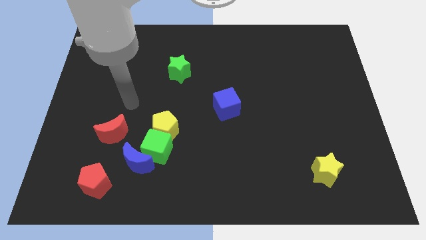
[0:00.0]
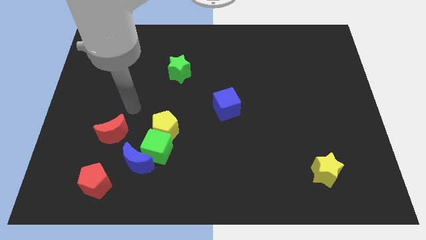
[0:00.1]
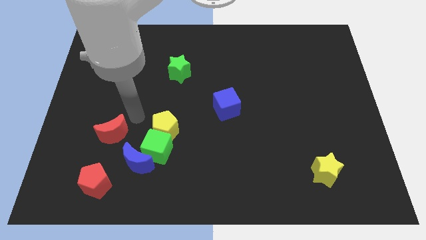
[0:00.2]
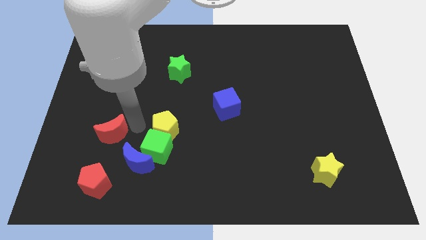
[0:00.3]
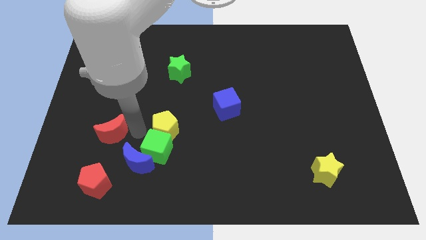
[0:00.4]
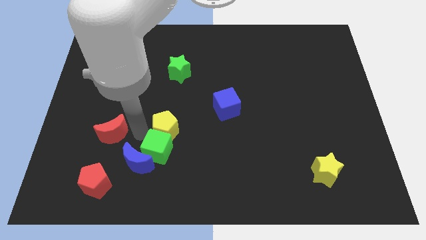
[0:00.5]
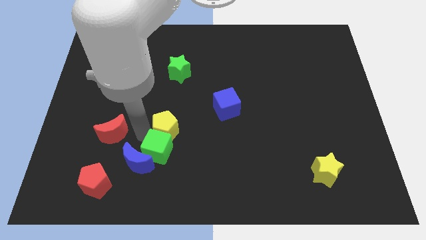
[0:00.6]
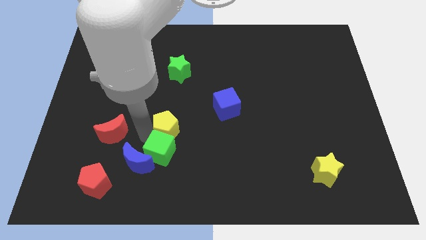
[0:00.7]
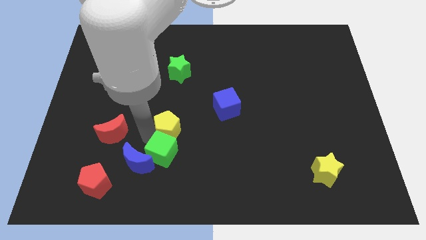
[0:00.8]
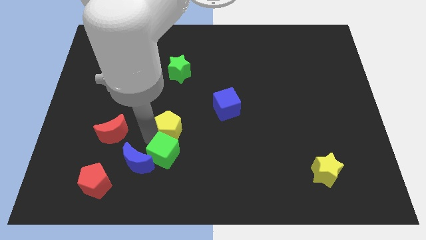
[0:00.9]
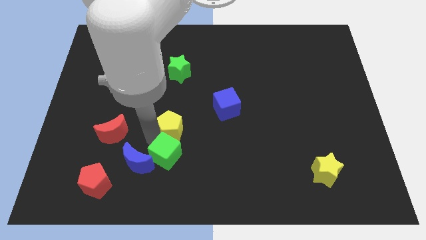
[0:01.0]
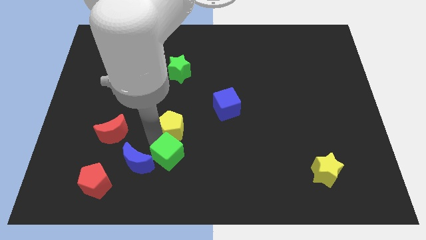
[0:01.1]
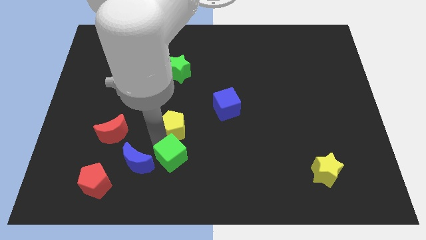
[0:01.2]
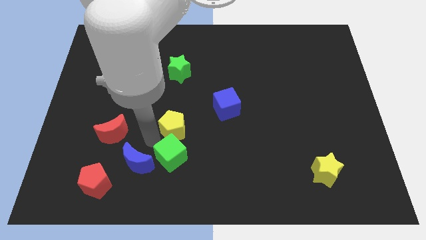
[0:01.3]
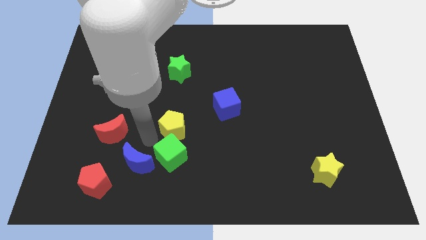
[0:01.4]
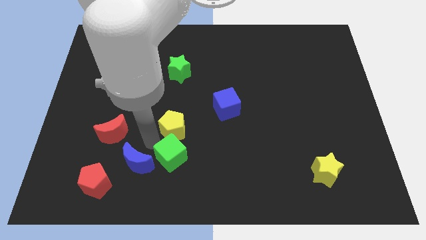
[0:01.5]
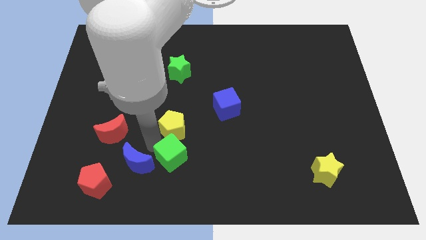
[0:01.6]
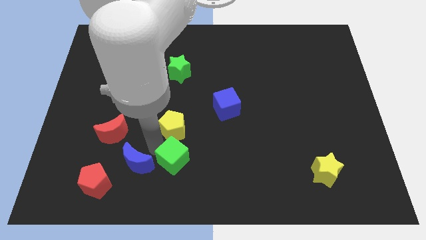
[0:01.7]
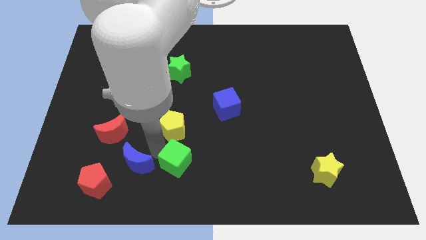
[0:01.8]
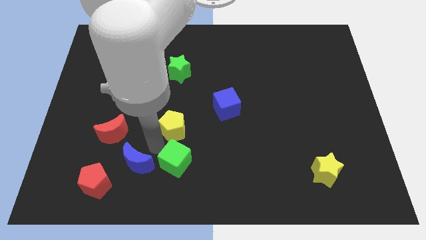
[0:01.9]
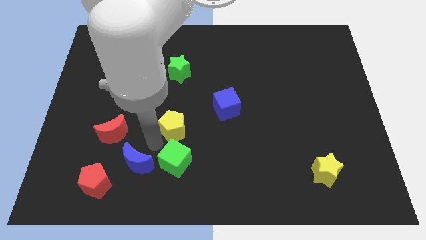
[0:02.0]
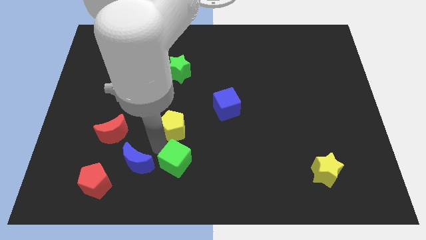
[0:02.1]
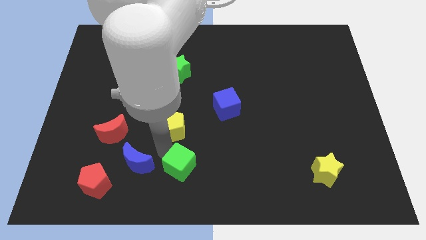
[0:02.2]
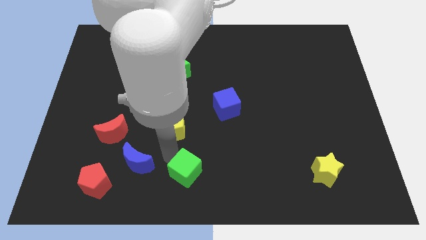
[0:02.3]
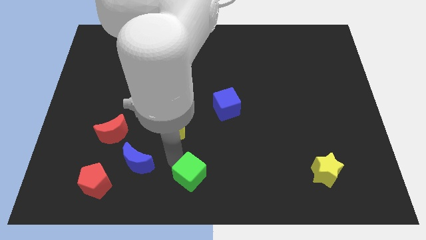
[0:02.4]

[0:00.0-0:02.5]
separate the green cube from the blue moon and yellow pentagon

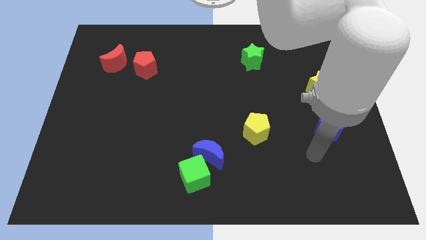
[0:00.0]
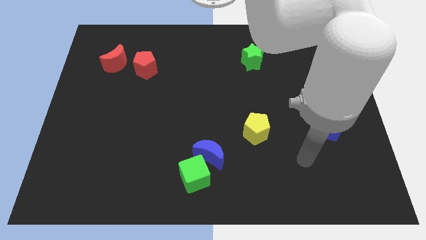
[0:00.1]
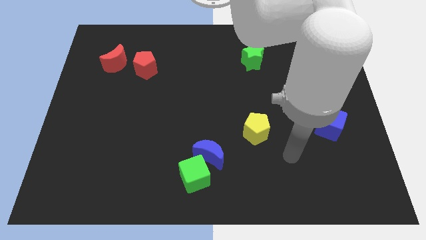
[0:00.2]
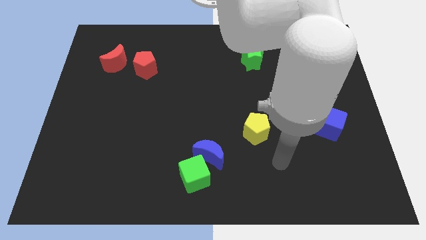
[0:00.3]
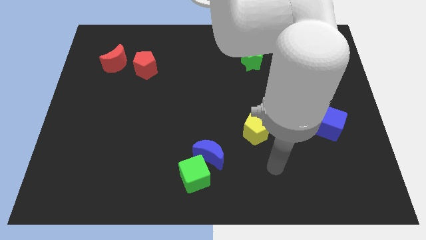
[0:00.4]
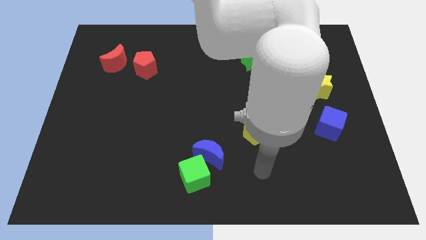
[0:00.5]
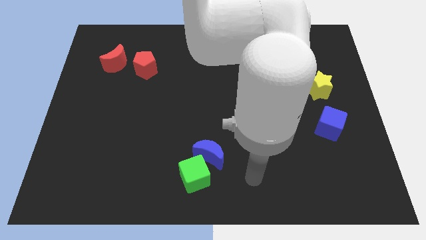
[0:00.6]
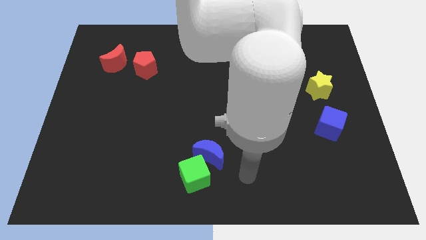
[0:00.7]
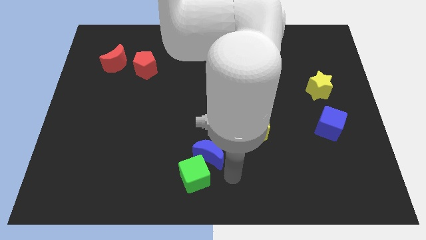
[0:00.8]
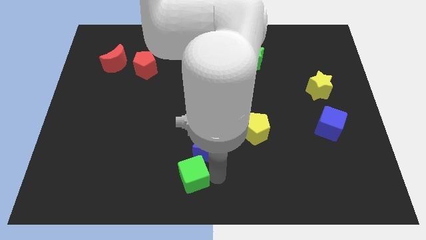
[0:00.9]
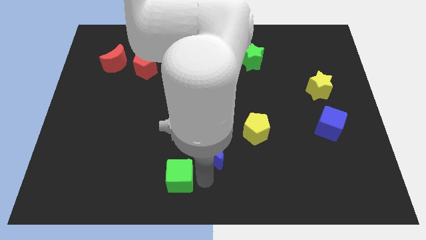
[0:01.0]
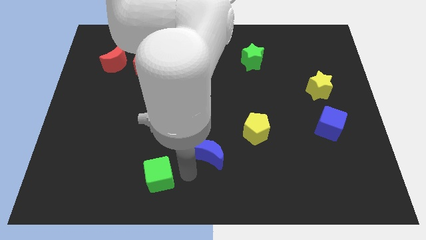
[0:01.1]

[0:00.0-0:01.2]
pull the blue moon apart from the green cube

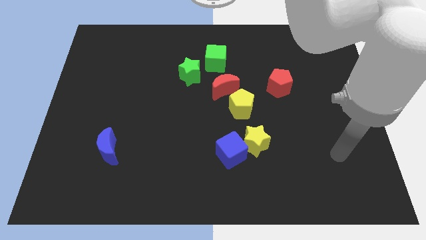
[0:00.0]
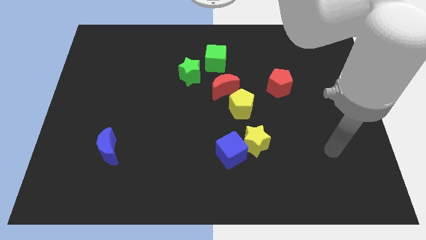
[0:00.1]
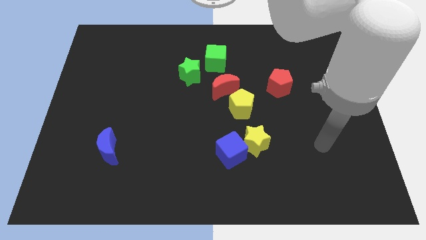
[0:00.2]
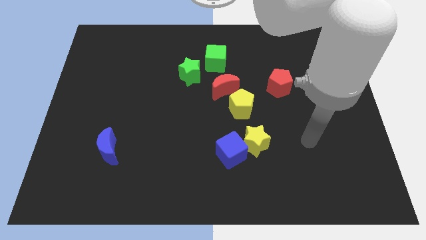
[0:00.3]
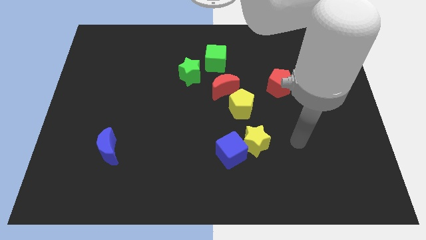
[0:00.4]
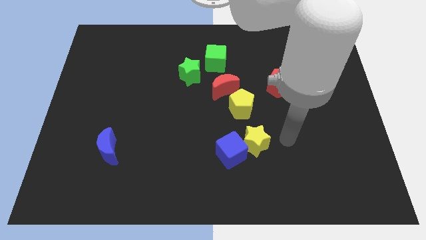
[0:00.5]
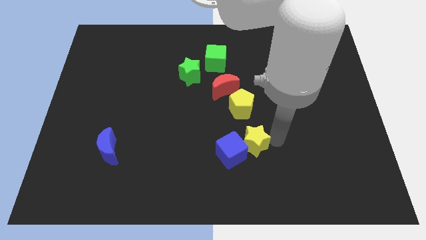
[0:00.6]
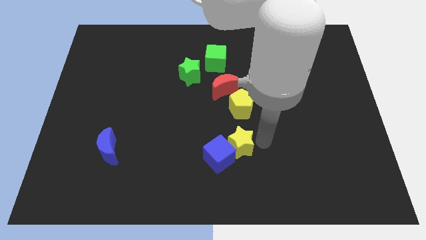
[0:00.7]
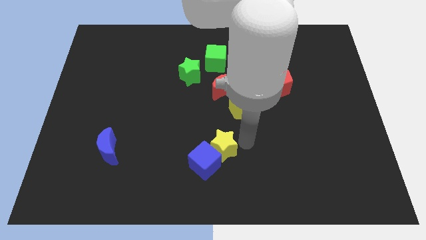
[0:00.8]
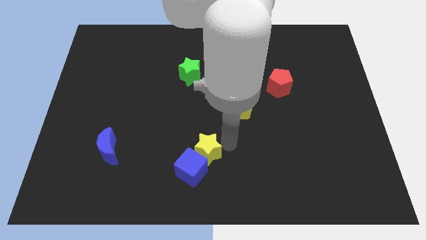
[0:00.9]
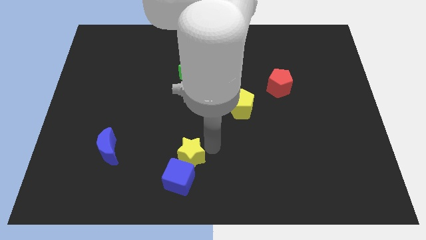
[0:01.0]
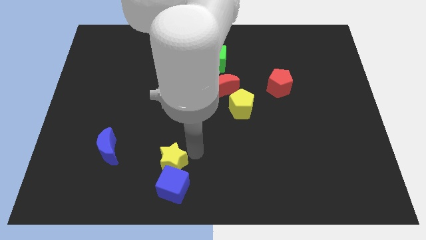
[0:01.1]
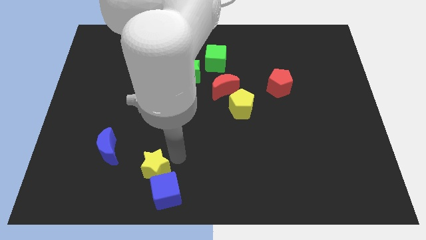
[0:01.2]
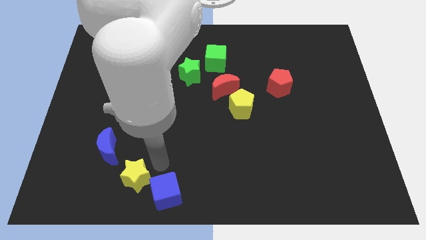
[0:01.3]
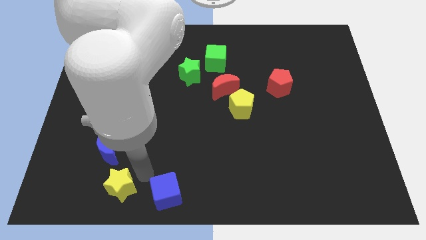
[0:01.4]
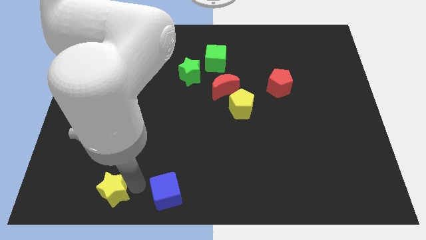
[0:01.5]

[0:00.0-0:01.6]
separate the blue cube from the yellow star

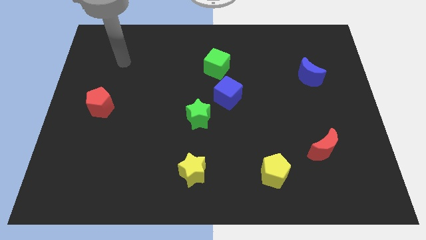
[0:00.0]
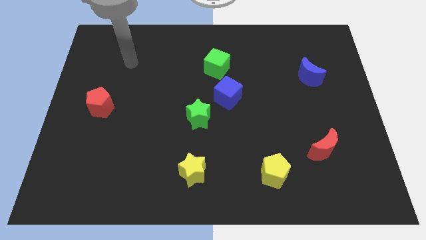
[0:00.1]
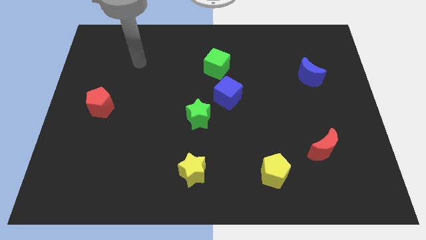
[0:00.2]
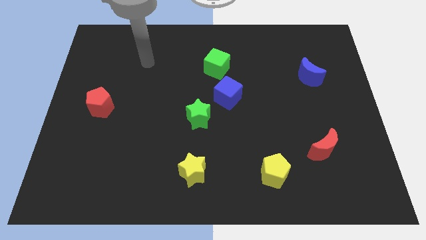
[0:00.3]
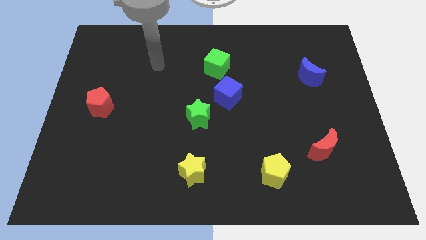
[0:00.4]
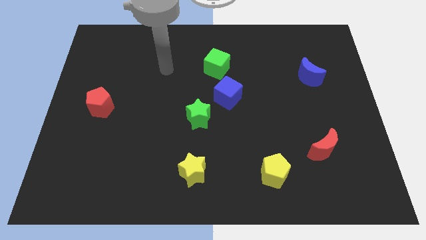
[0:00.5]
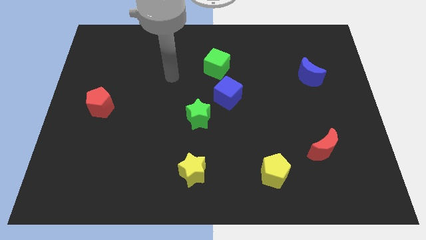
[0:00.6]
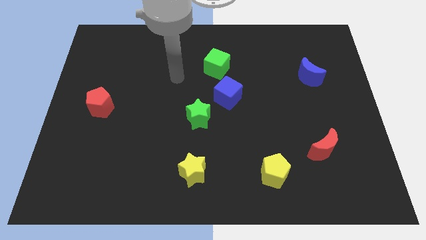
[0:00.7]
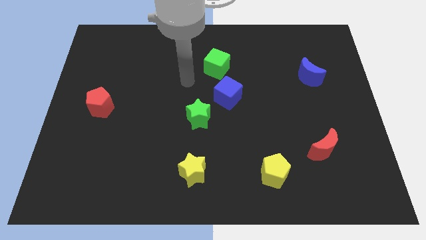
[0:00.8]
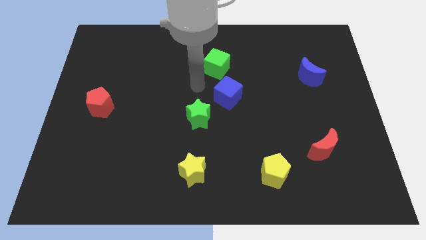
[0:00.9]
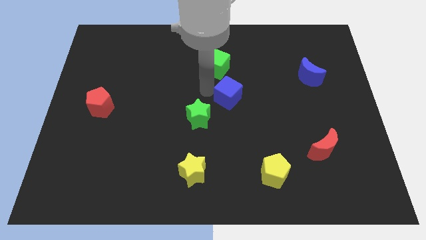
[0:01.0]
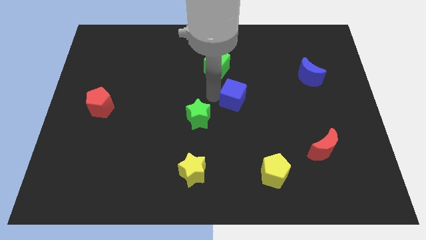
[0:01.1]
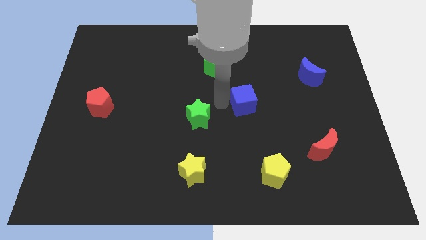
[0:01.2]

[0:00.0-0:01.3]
separate the green star from the blue cube

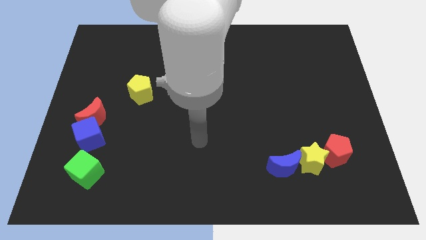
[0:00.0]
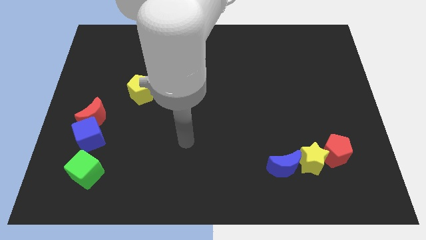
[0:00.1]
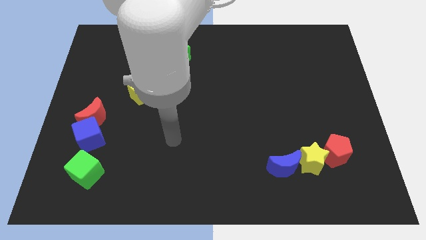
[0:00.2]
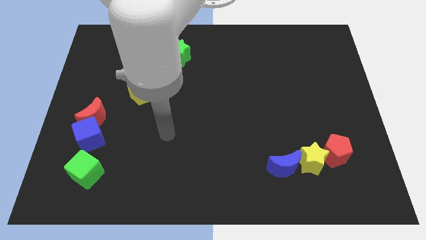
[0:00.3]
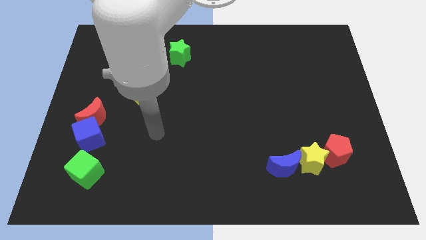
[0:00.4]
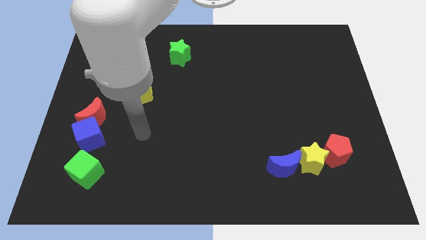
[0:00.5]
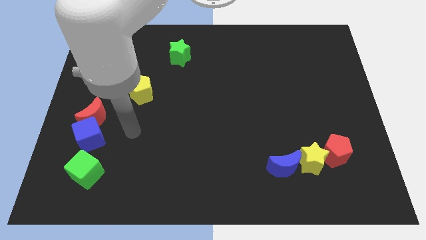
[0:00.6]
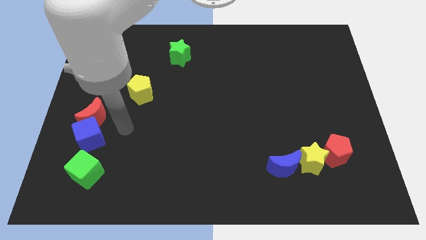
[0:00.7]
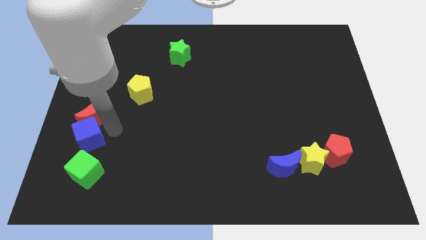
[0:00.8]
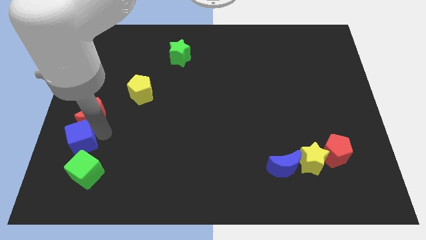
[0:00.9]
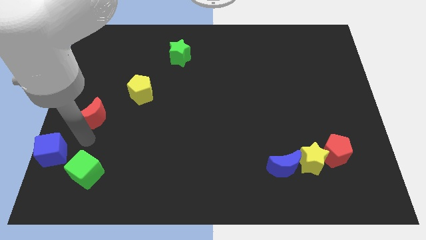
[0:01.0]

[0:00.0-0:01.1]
move the red moon away from the blue cube

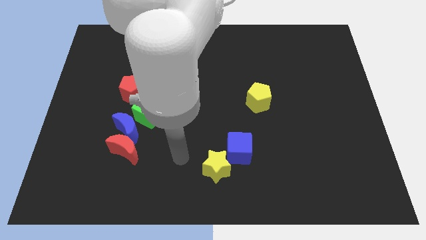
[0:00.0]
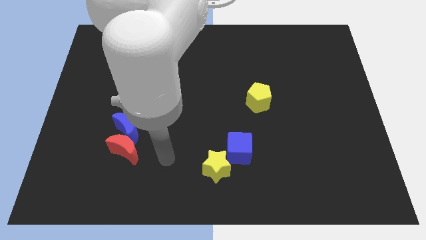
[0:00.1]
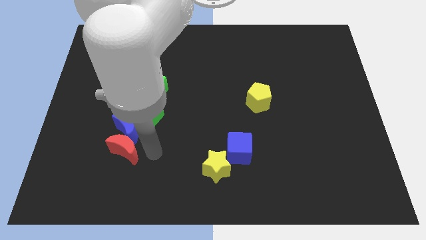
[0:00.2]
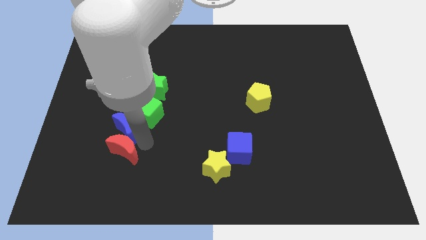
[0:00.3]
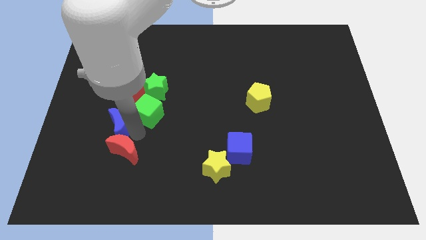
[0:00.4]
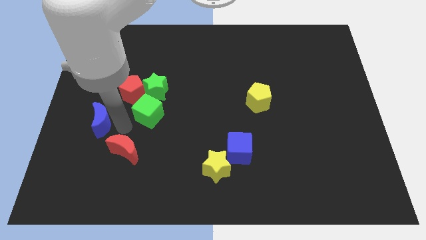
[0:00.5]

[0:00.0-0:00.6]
separate the red moon from the blue moon

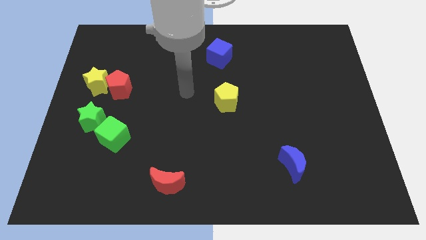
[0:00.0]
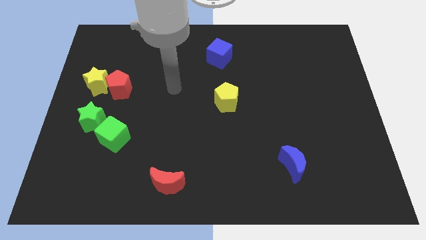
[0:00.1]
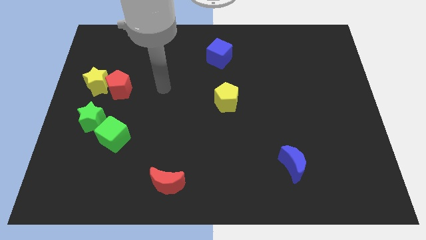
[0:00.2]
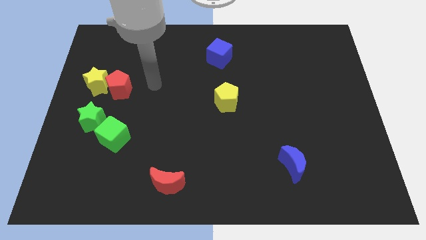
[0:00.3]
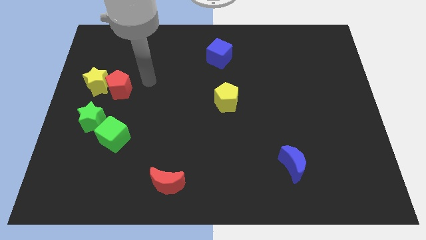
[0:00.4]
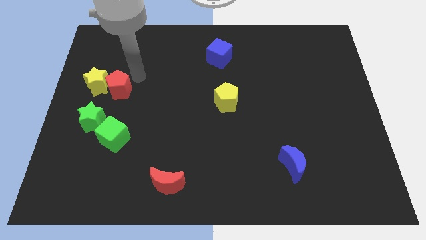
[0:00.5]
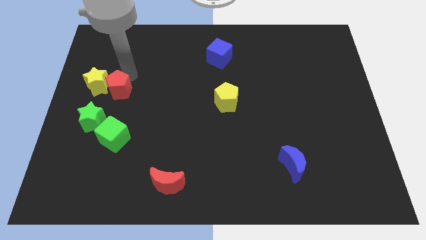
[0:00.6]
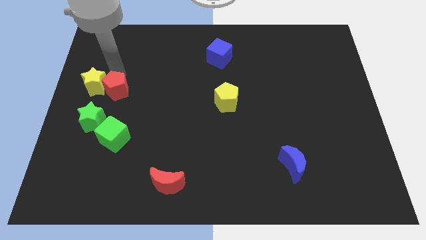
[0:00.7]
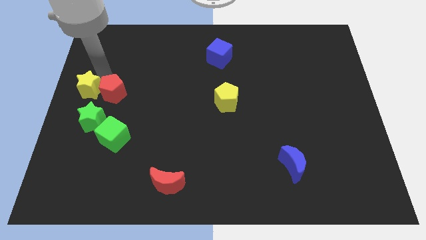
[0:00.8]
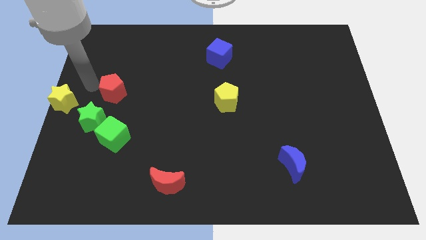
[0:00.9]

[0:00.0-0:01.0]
move the red pentagon away from the yellow star
